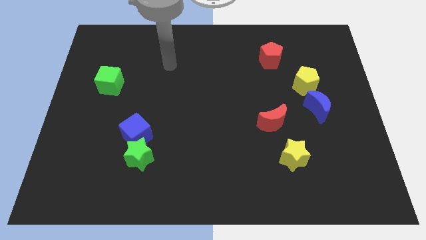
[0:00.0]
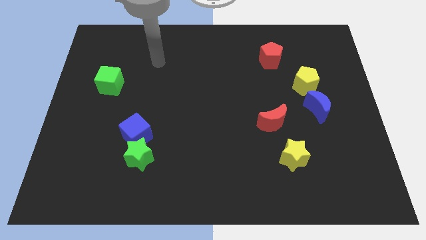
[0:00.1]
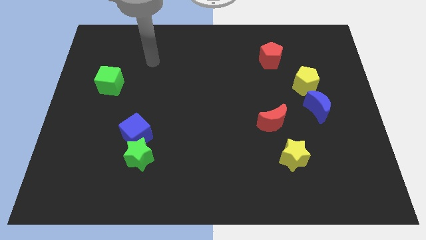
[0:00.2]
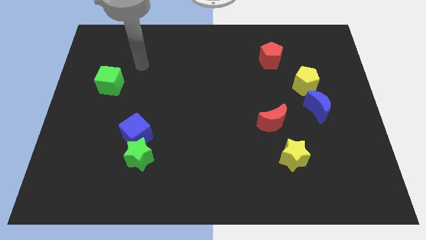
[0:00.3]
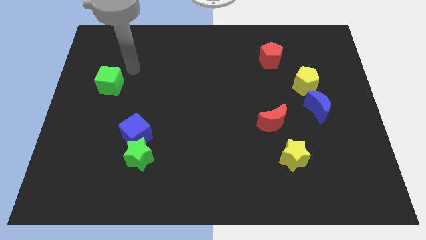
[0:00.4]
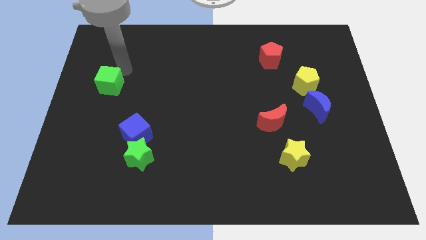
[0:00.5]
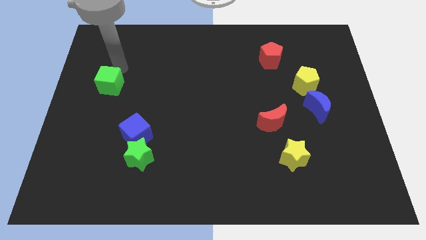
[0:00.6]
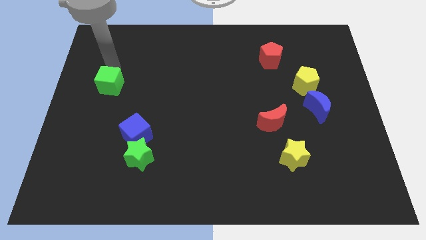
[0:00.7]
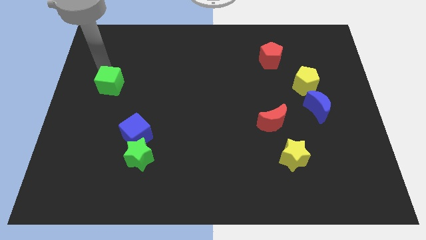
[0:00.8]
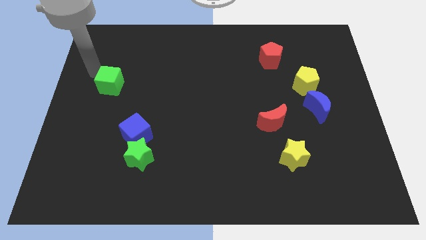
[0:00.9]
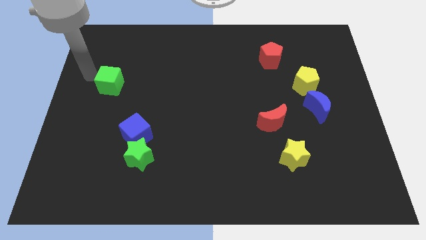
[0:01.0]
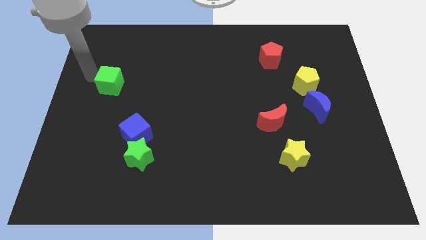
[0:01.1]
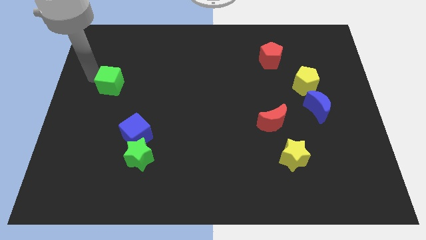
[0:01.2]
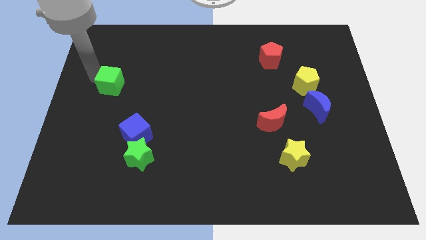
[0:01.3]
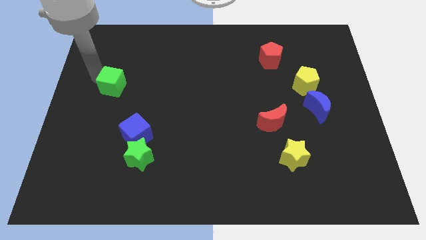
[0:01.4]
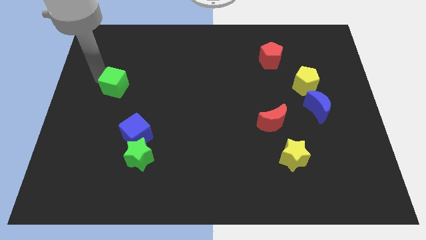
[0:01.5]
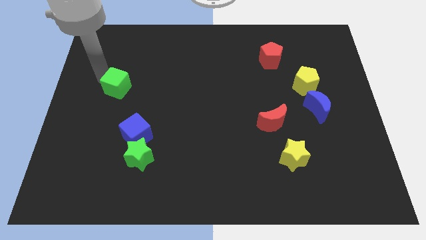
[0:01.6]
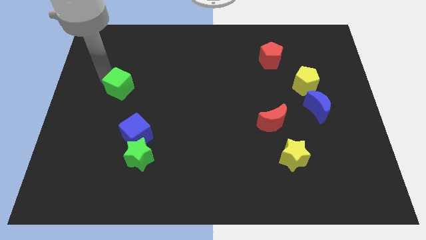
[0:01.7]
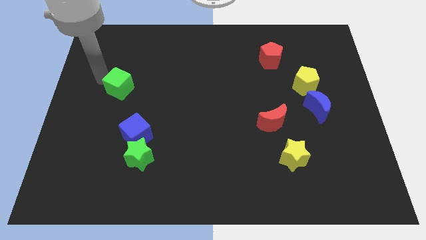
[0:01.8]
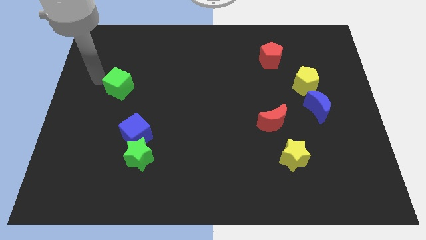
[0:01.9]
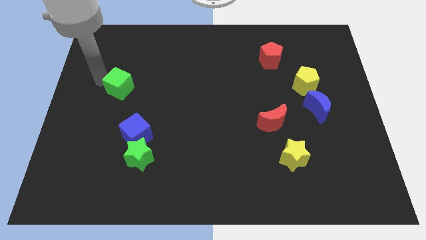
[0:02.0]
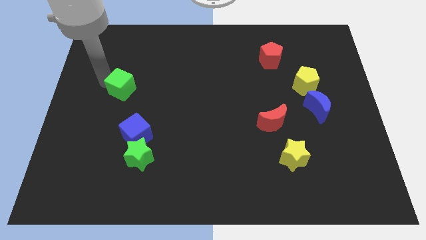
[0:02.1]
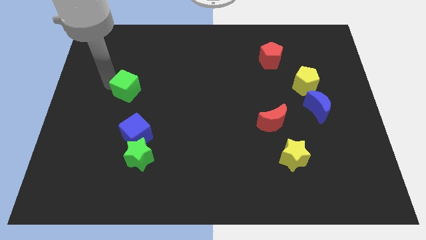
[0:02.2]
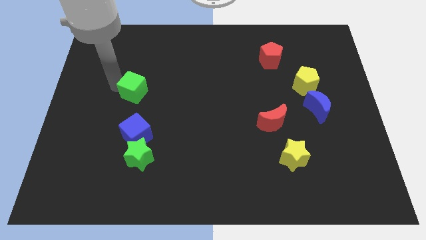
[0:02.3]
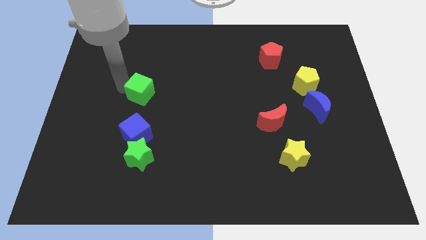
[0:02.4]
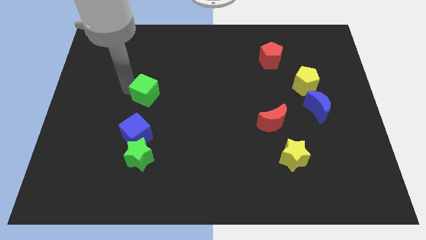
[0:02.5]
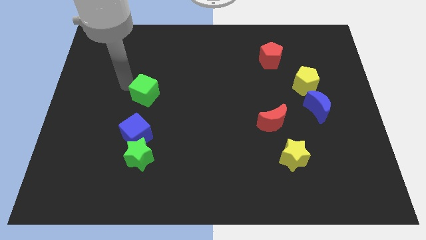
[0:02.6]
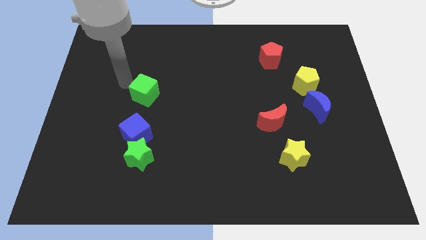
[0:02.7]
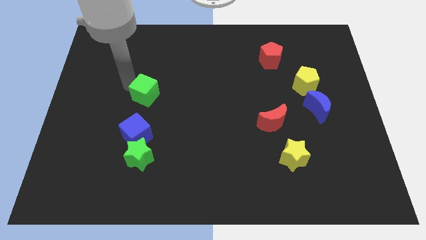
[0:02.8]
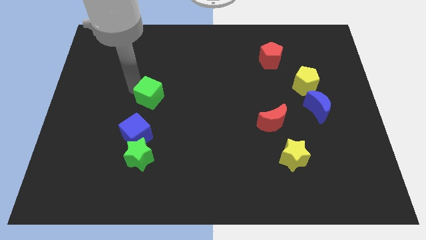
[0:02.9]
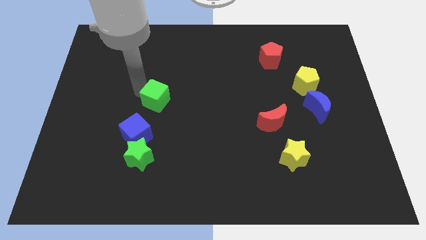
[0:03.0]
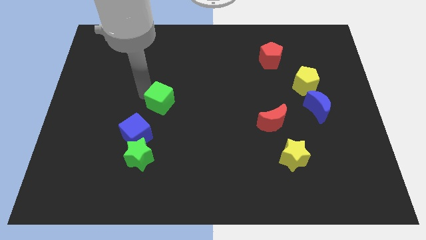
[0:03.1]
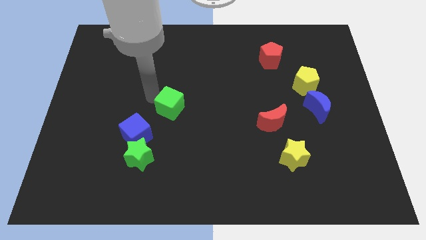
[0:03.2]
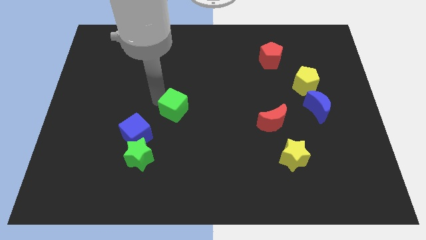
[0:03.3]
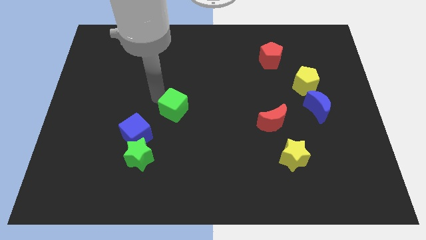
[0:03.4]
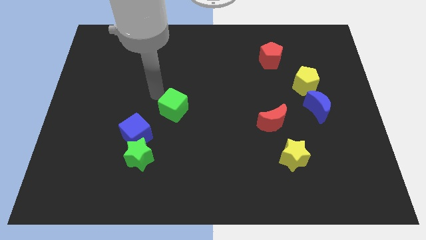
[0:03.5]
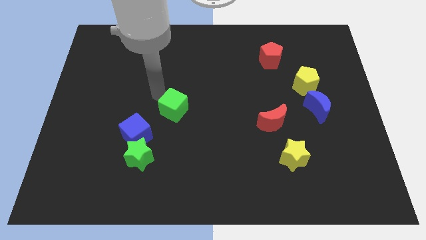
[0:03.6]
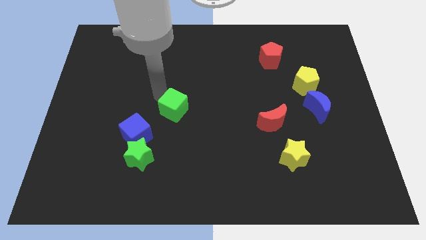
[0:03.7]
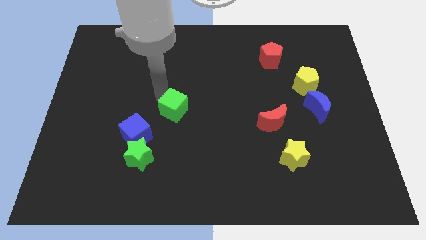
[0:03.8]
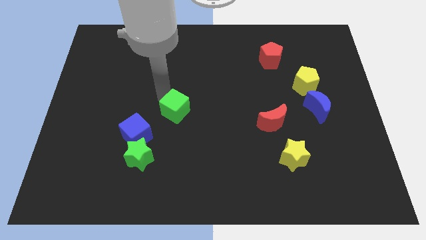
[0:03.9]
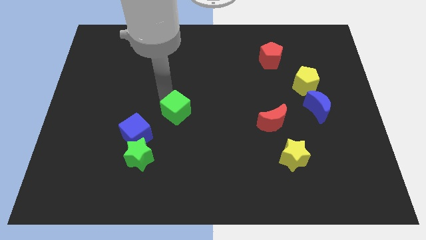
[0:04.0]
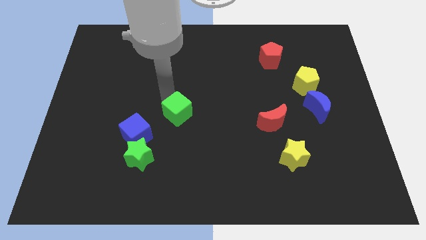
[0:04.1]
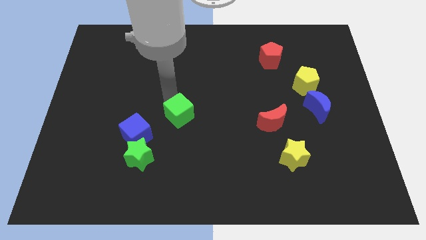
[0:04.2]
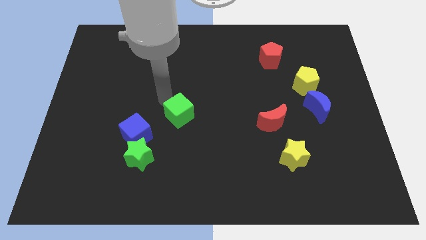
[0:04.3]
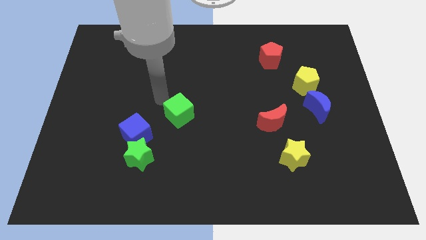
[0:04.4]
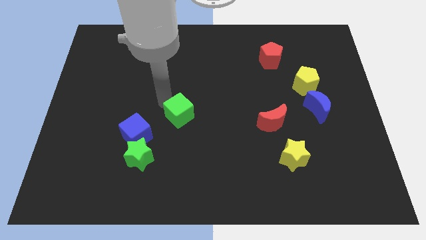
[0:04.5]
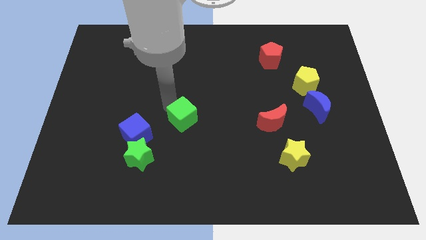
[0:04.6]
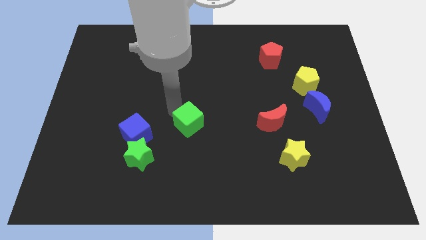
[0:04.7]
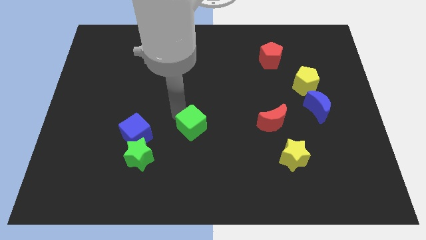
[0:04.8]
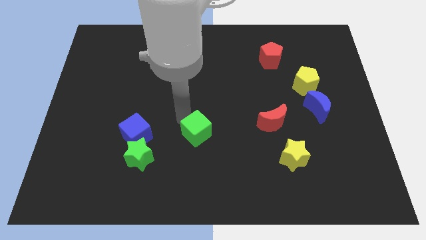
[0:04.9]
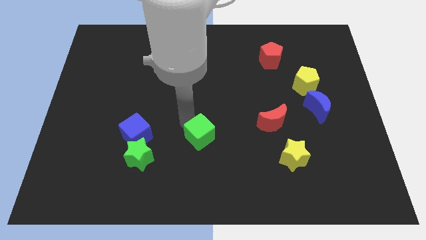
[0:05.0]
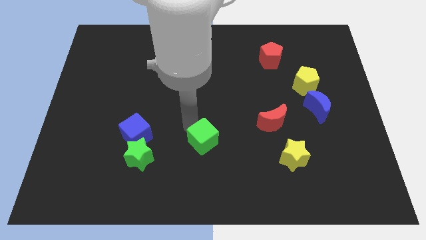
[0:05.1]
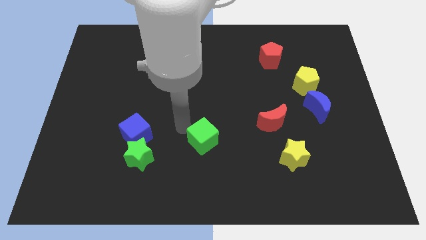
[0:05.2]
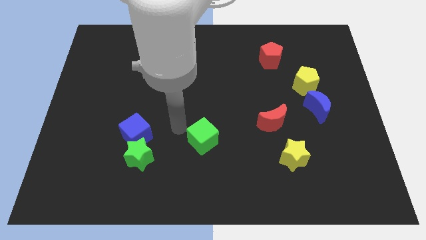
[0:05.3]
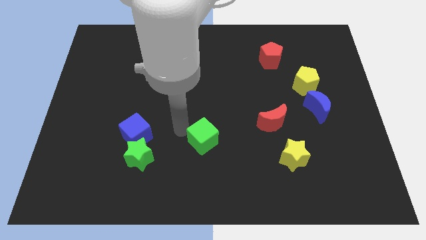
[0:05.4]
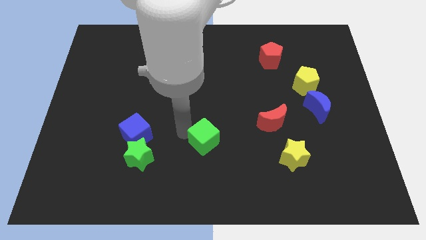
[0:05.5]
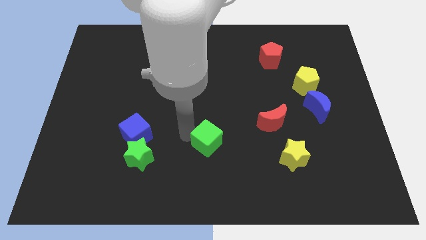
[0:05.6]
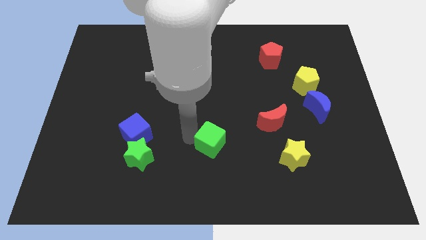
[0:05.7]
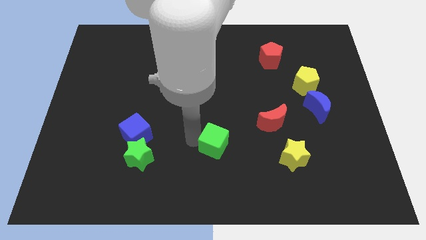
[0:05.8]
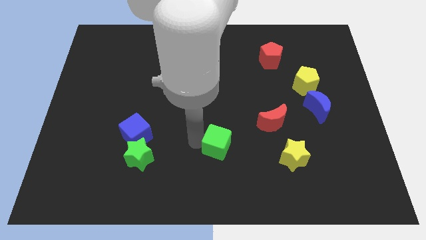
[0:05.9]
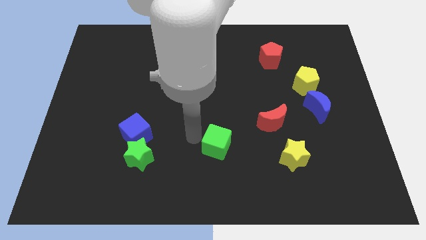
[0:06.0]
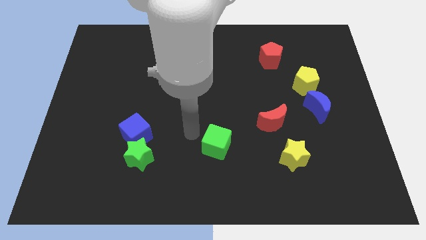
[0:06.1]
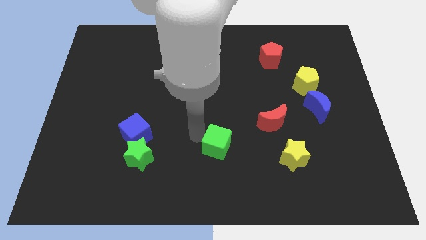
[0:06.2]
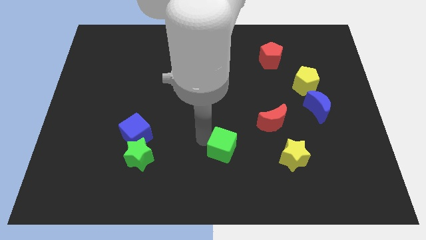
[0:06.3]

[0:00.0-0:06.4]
put the green cube left of the yellow star
